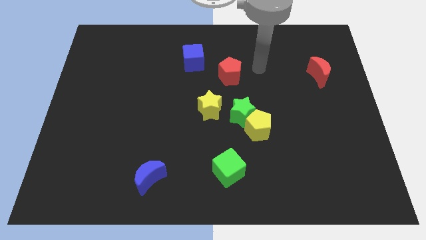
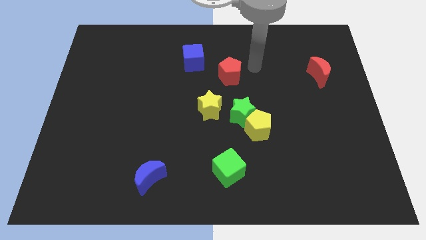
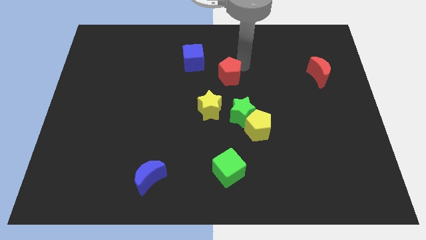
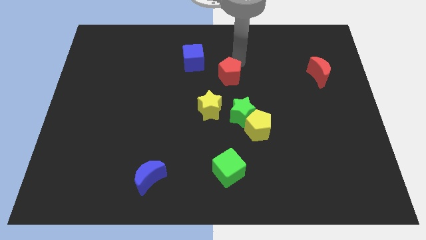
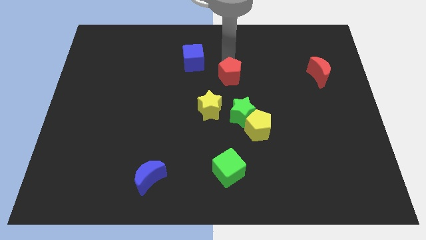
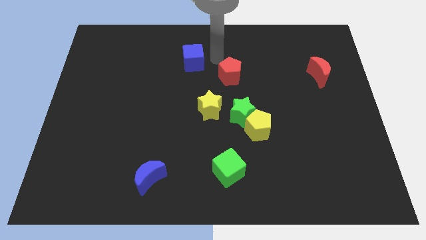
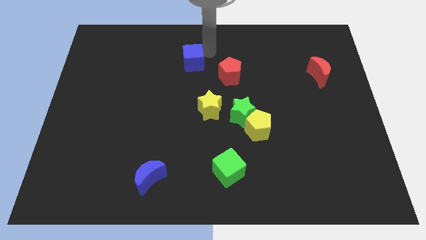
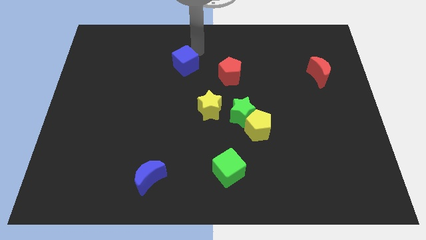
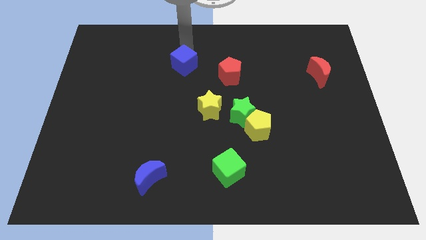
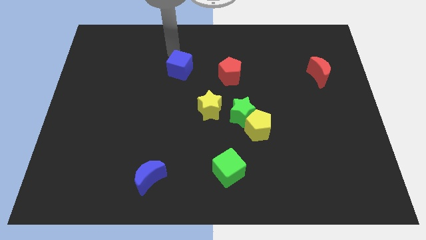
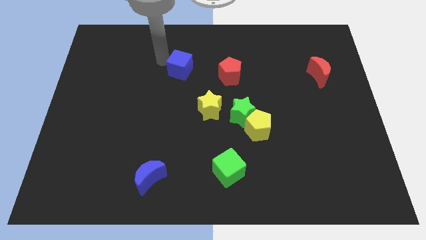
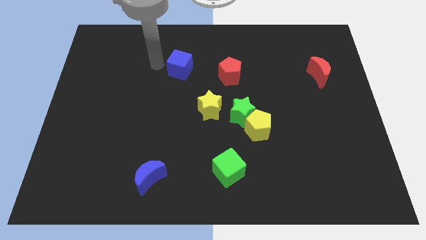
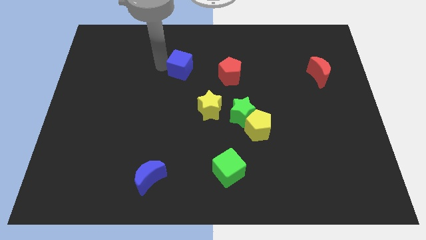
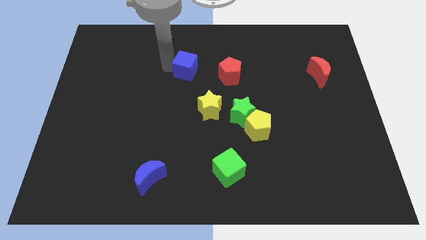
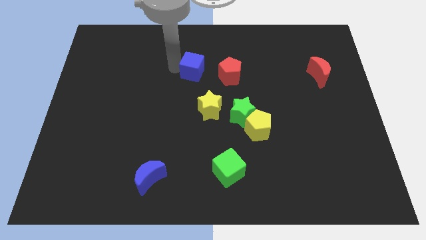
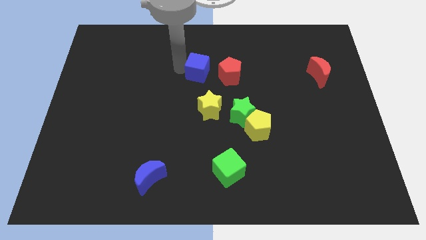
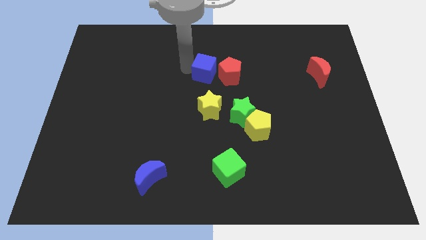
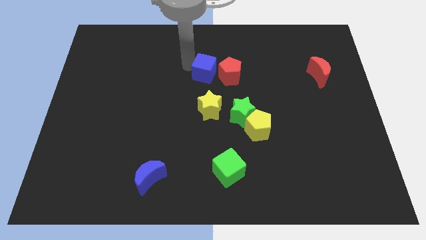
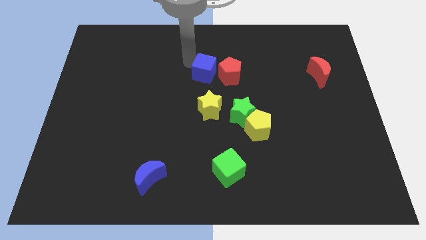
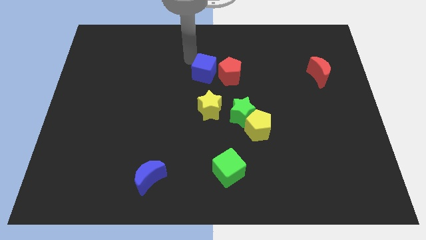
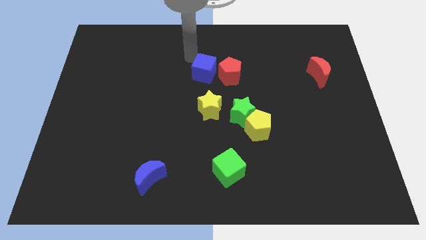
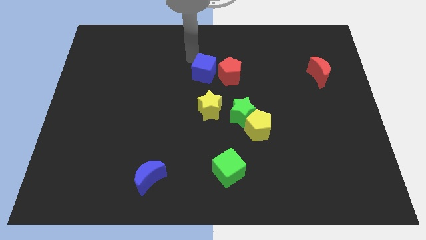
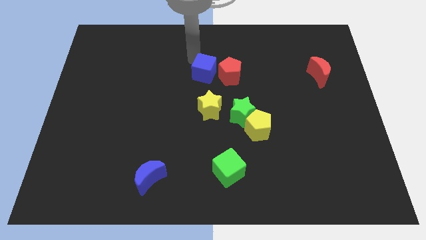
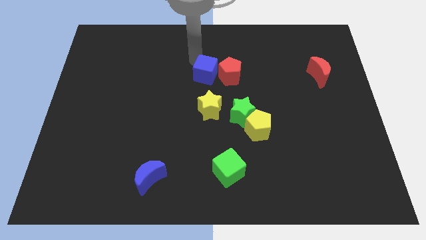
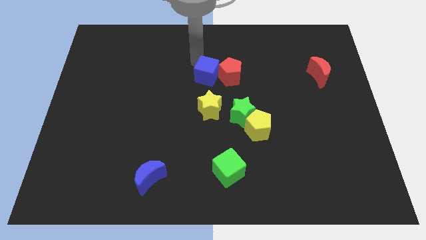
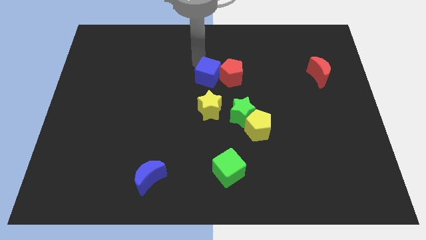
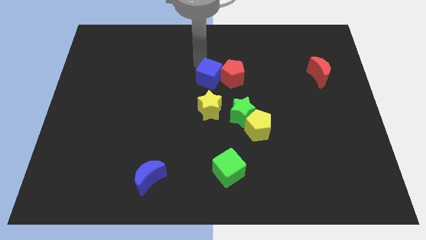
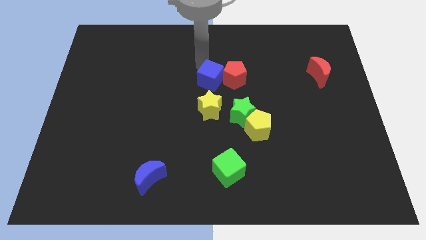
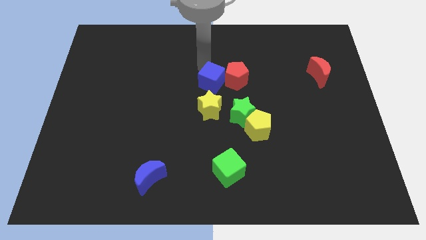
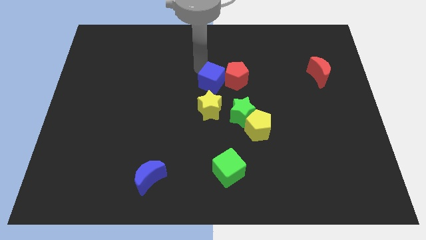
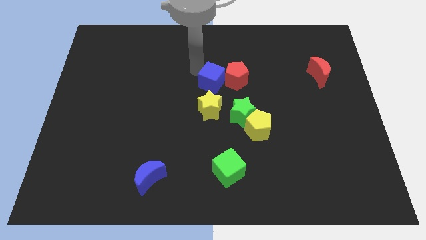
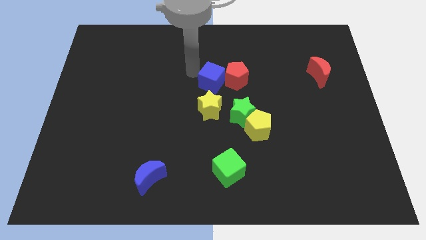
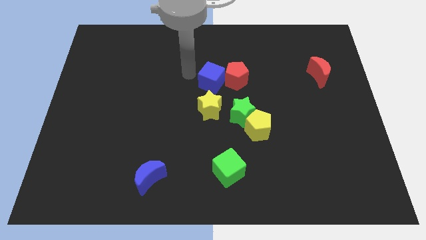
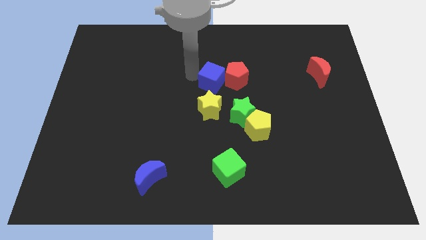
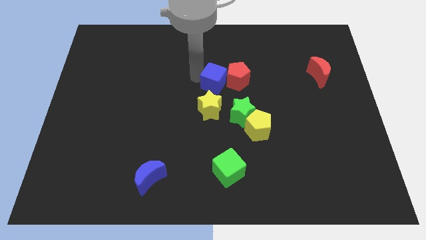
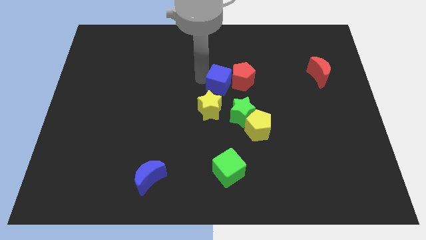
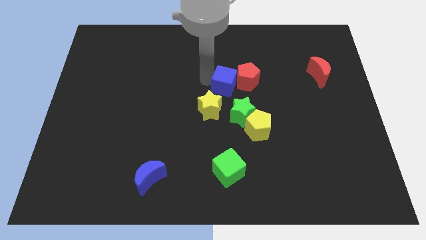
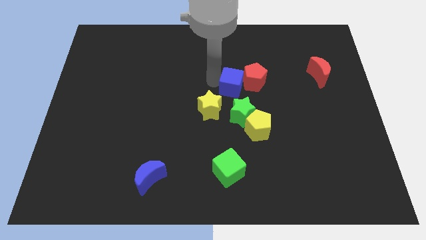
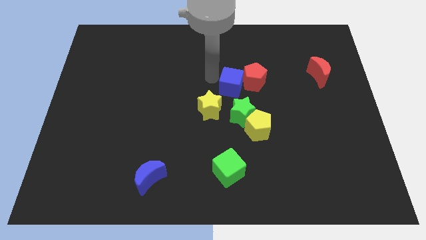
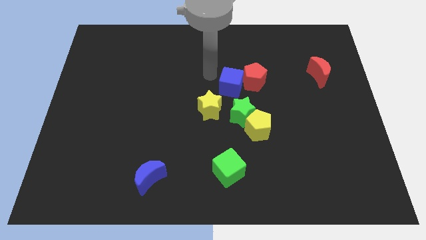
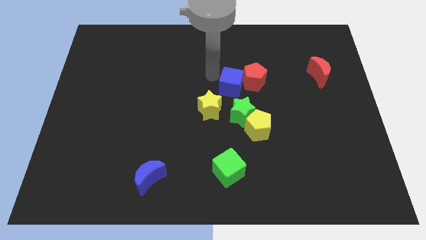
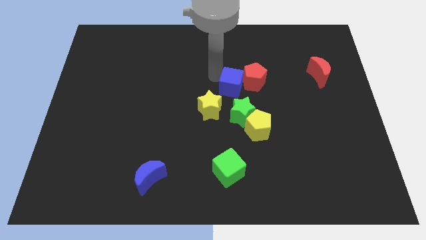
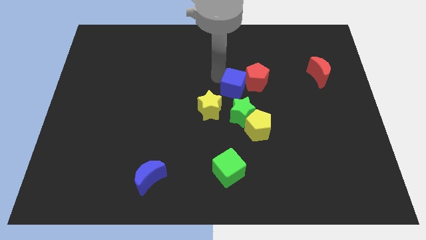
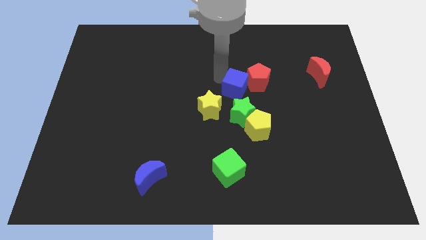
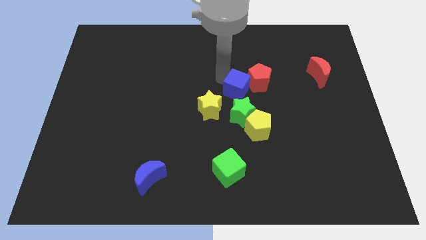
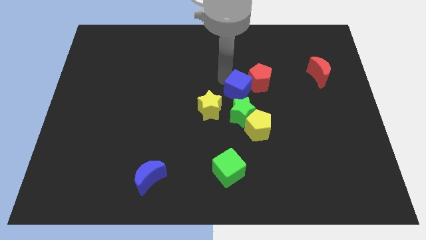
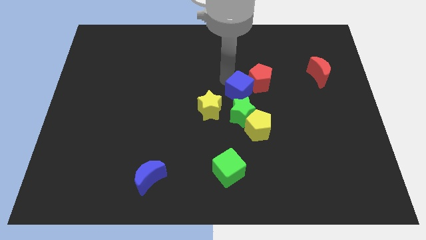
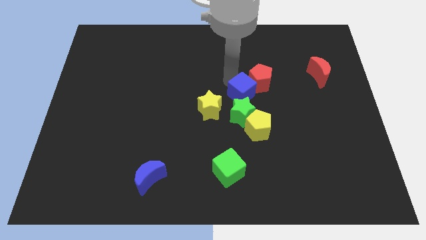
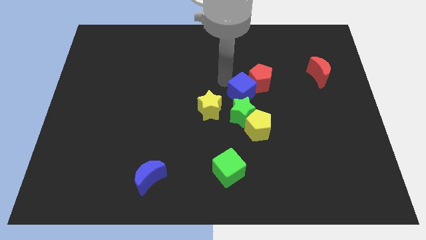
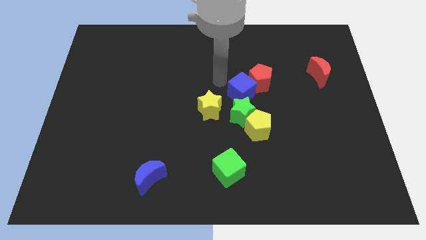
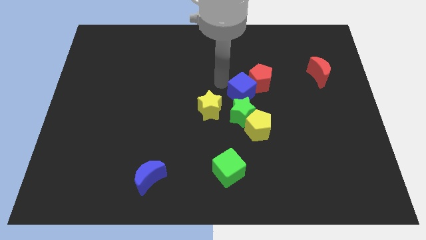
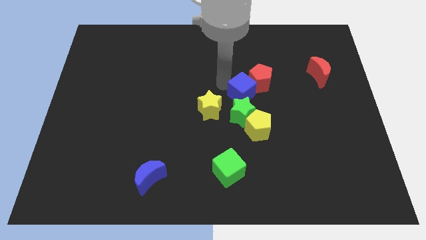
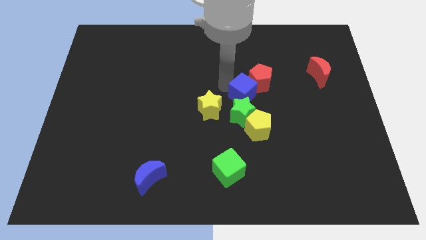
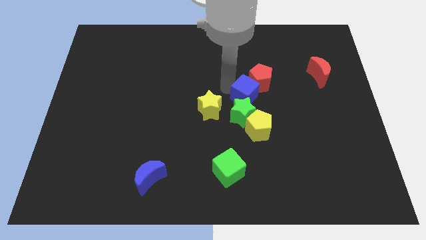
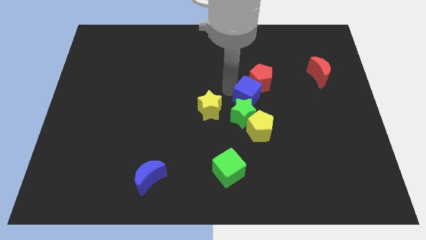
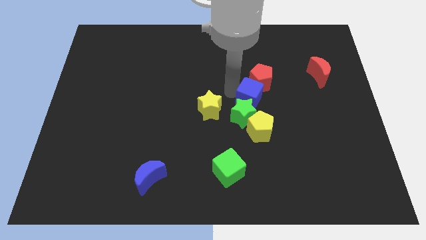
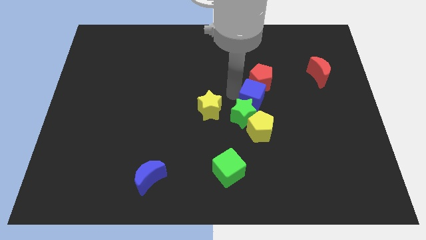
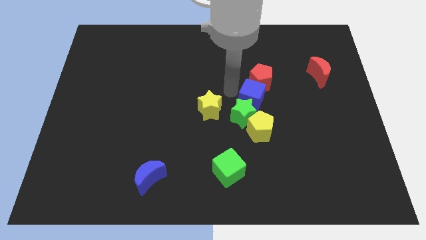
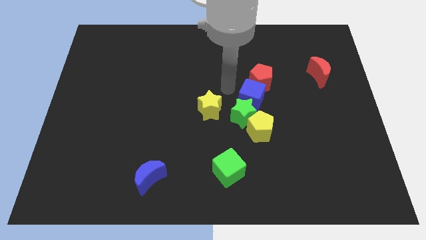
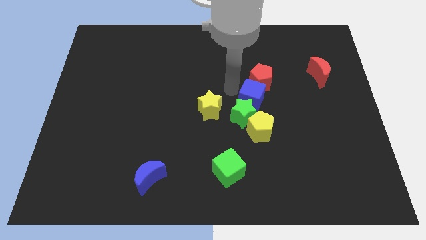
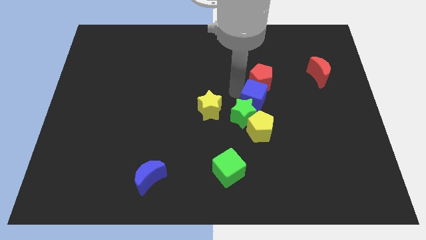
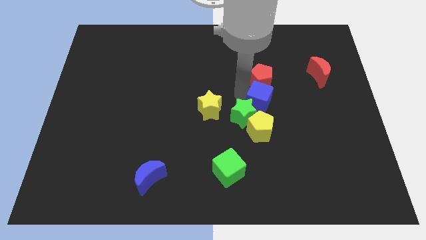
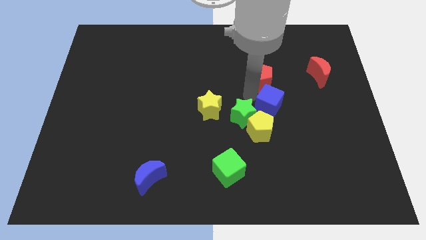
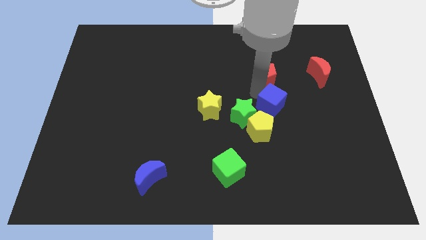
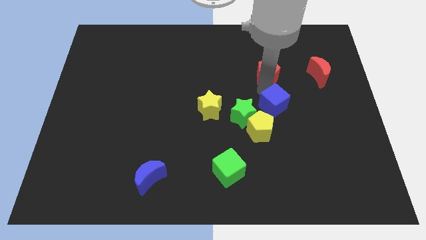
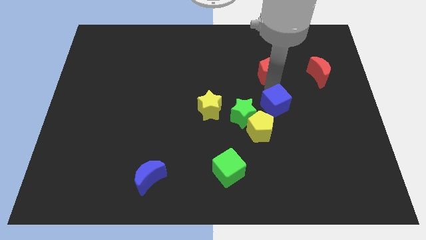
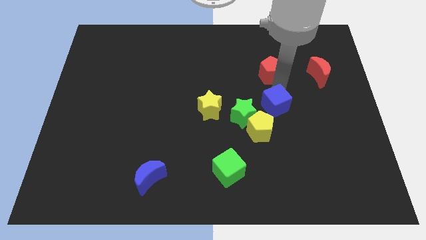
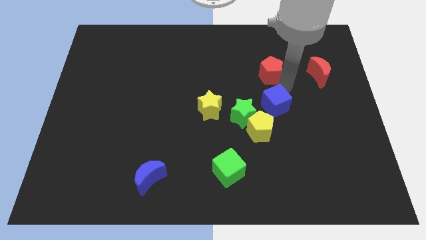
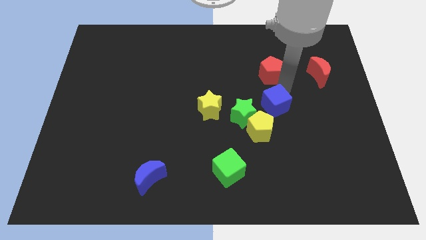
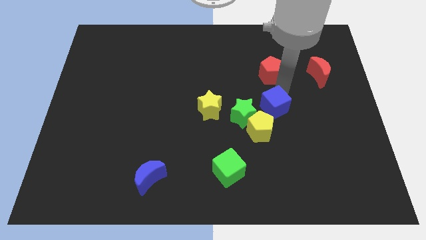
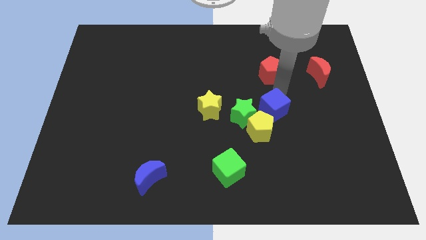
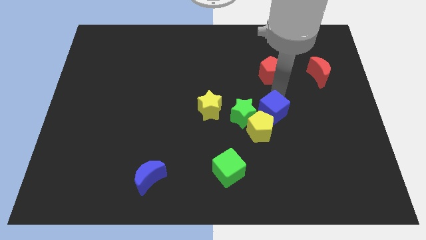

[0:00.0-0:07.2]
move the blue cube towards the yellow pentagon
